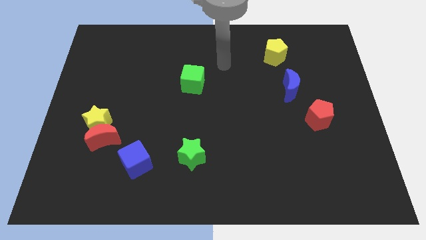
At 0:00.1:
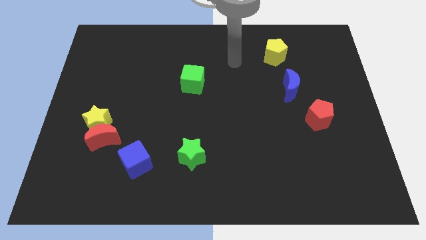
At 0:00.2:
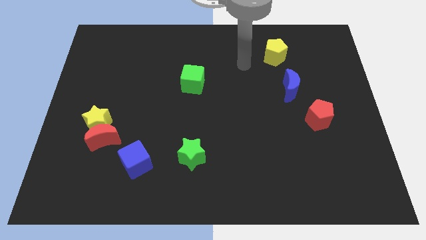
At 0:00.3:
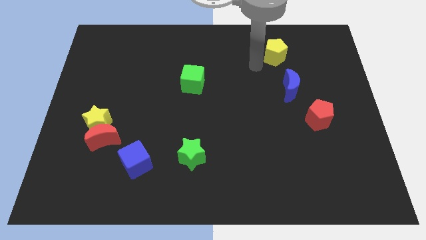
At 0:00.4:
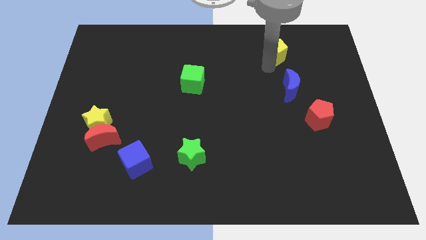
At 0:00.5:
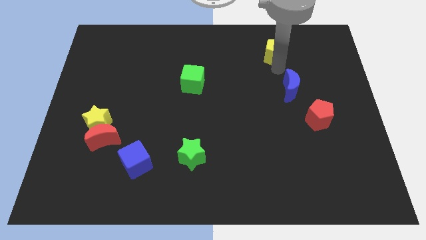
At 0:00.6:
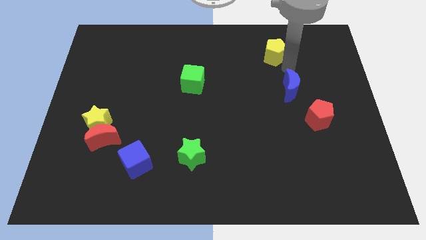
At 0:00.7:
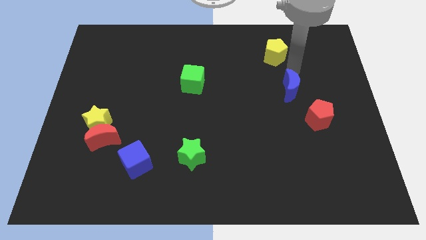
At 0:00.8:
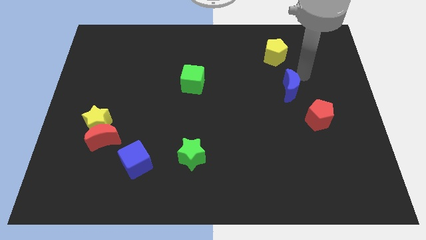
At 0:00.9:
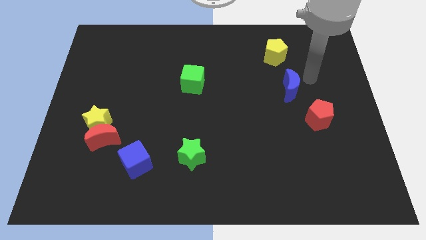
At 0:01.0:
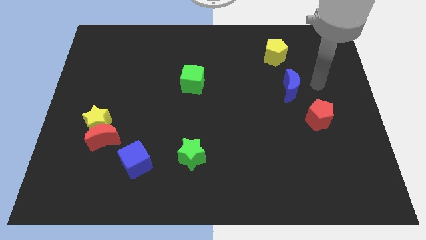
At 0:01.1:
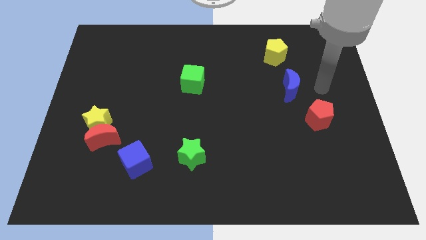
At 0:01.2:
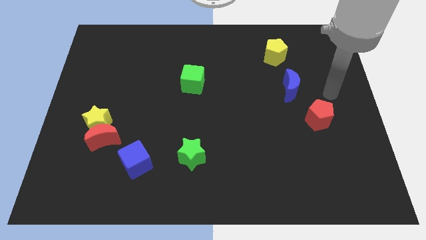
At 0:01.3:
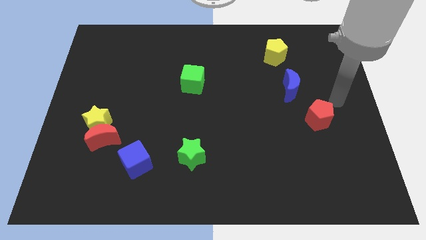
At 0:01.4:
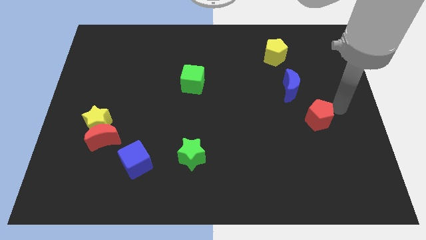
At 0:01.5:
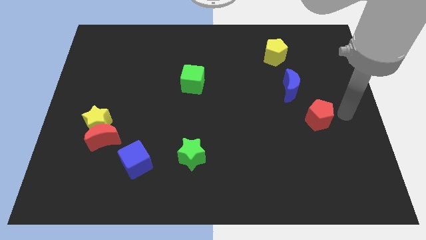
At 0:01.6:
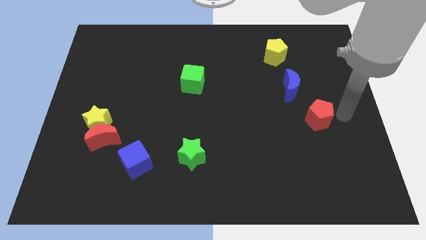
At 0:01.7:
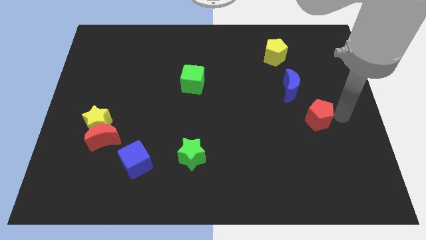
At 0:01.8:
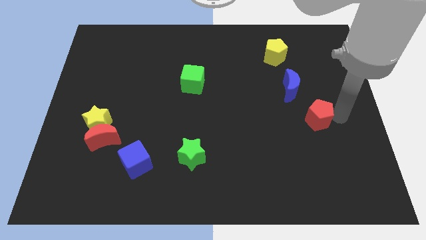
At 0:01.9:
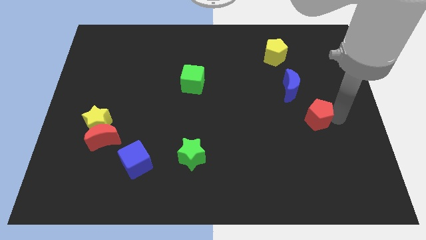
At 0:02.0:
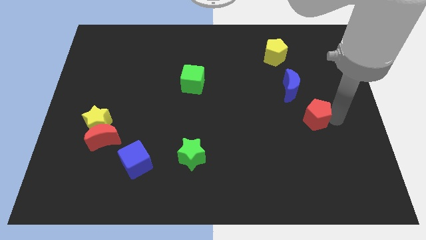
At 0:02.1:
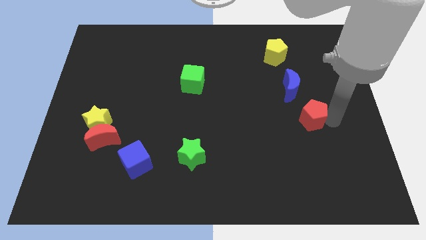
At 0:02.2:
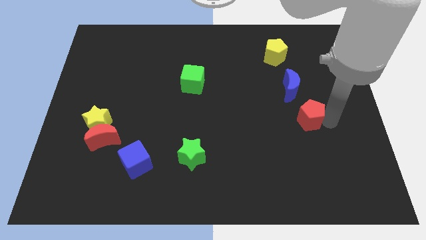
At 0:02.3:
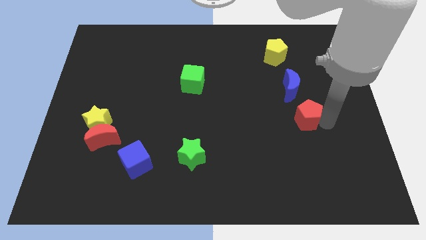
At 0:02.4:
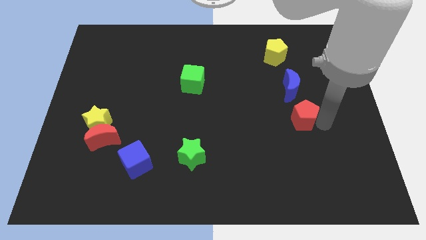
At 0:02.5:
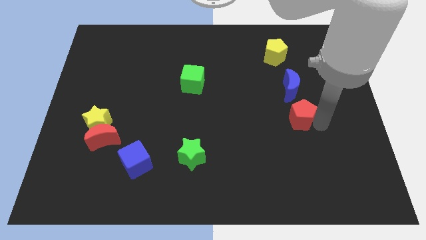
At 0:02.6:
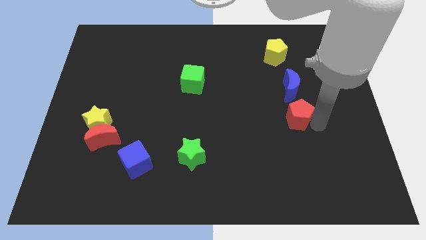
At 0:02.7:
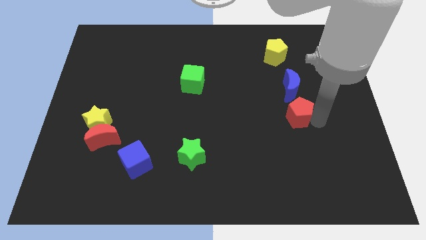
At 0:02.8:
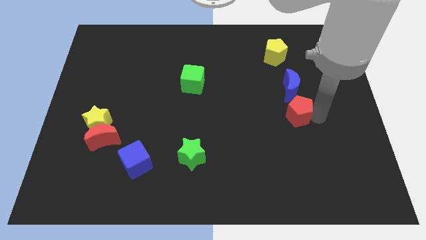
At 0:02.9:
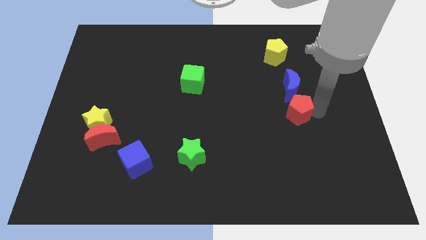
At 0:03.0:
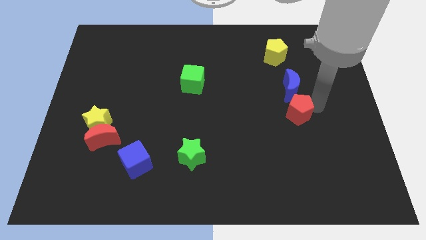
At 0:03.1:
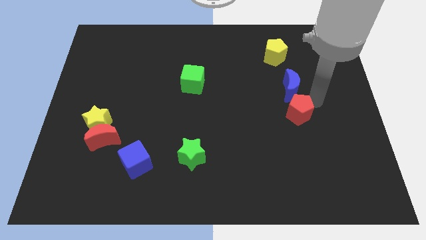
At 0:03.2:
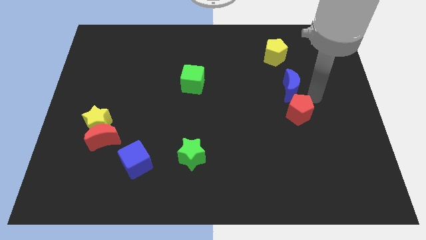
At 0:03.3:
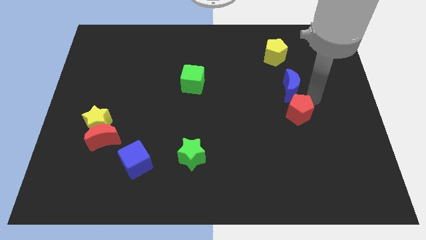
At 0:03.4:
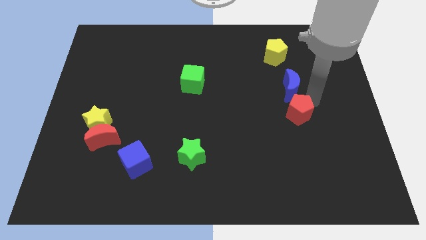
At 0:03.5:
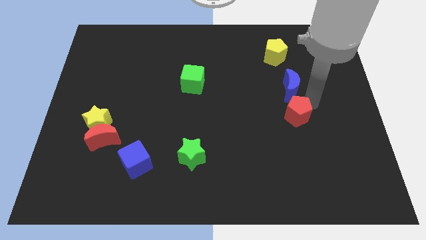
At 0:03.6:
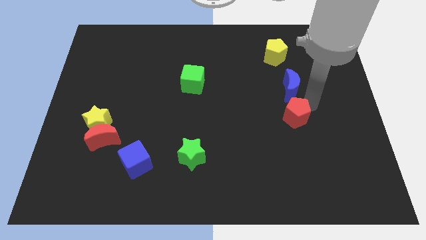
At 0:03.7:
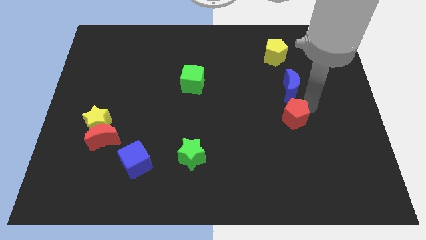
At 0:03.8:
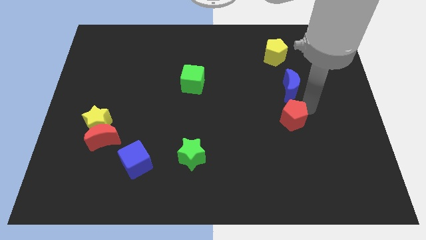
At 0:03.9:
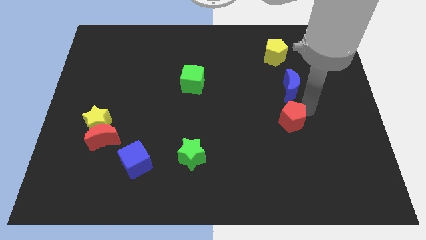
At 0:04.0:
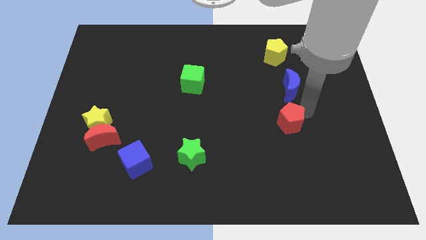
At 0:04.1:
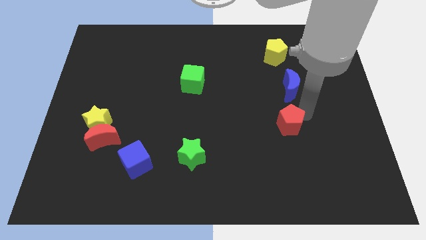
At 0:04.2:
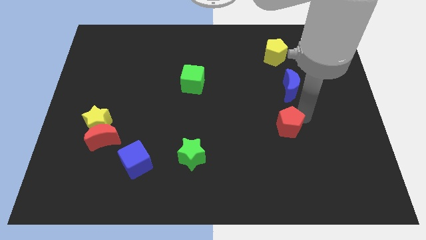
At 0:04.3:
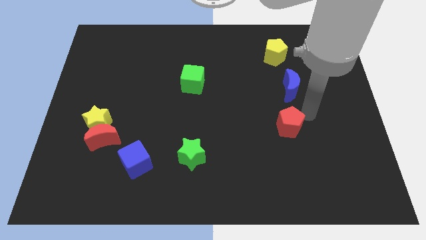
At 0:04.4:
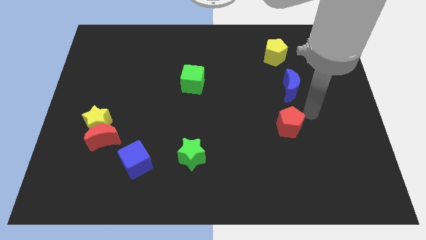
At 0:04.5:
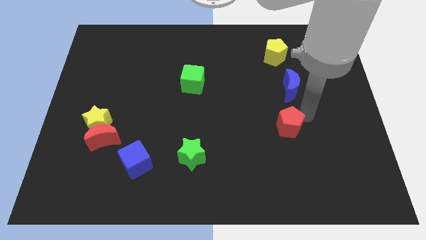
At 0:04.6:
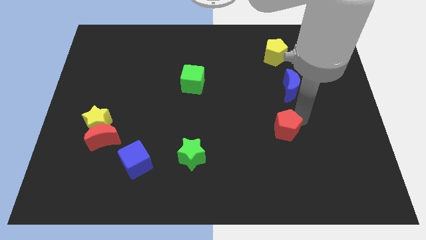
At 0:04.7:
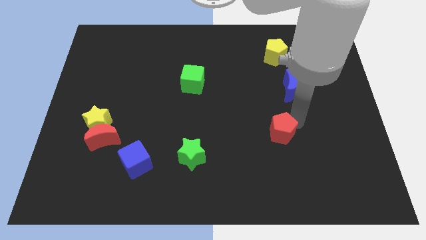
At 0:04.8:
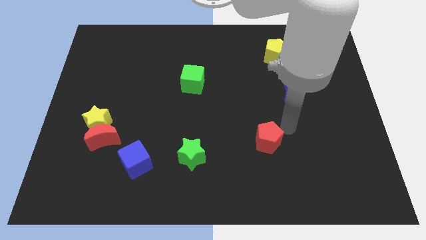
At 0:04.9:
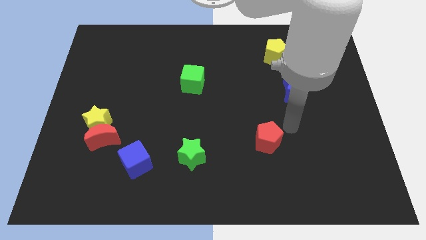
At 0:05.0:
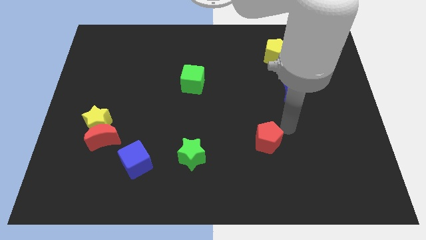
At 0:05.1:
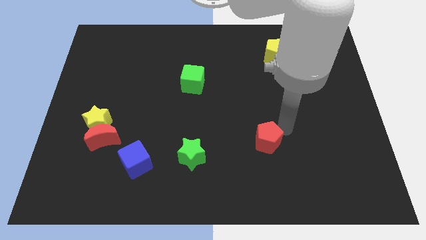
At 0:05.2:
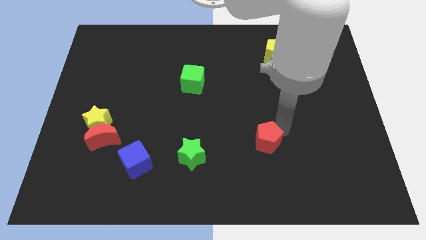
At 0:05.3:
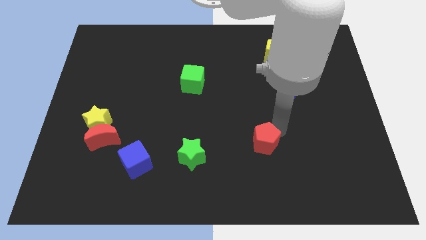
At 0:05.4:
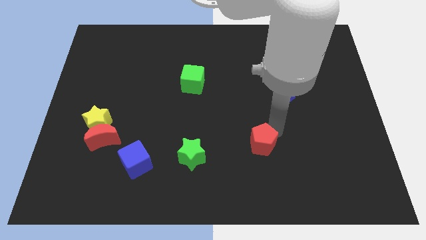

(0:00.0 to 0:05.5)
push the red pentagon right of the green star

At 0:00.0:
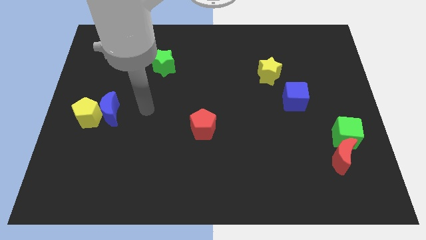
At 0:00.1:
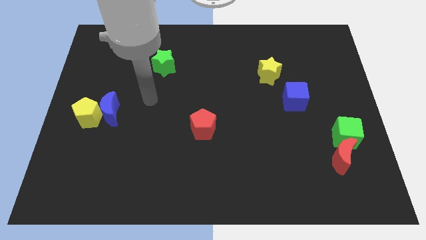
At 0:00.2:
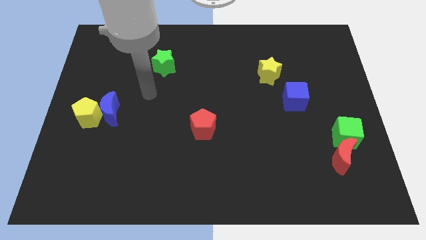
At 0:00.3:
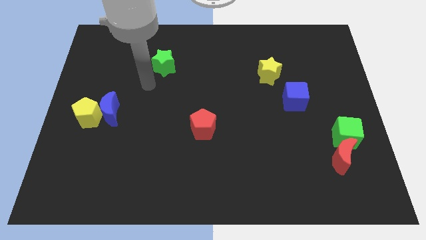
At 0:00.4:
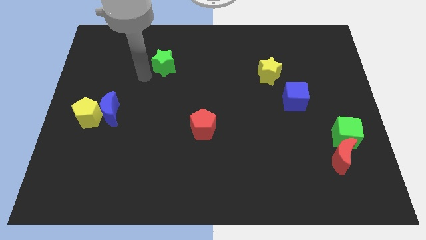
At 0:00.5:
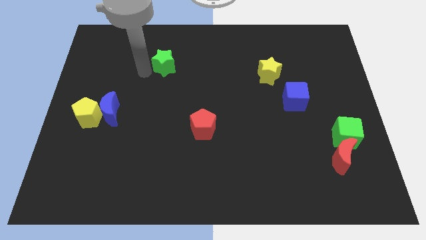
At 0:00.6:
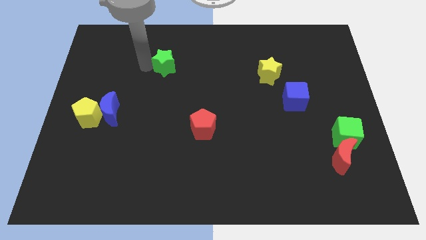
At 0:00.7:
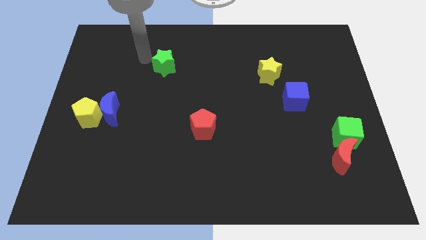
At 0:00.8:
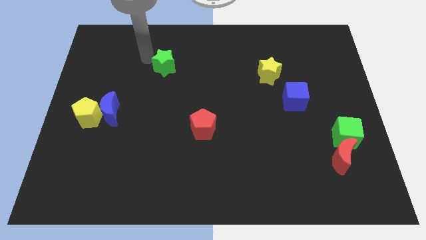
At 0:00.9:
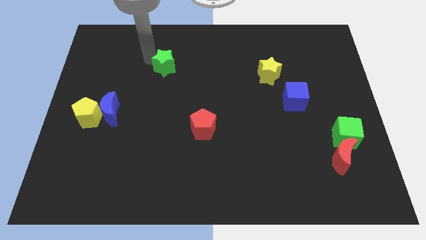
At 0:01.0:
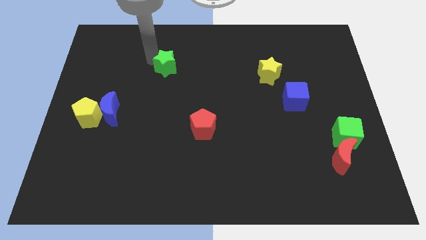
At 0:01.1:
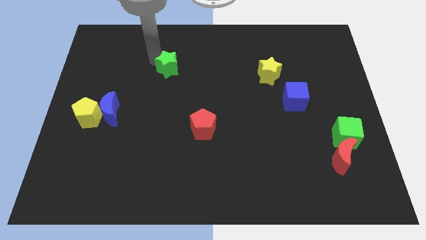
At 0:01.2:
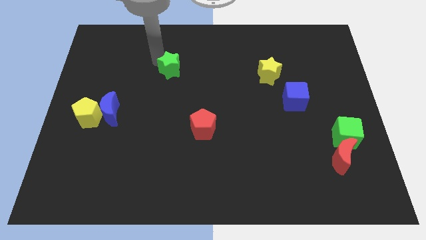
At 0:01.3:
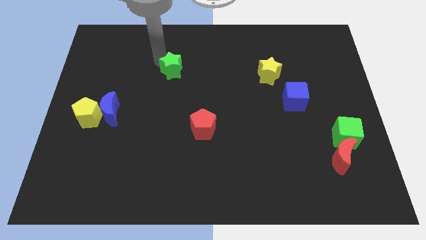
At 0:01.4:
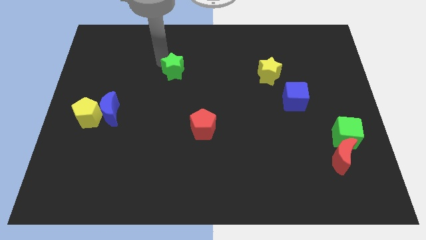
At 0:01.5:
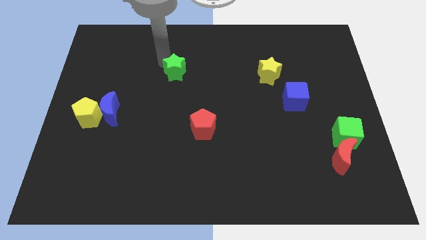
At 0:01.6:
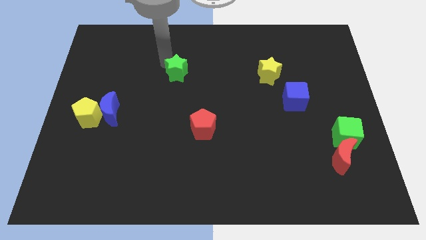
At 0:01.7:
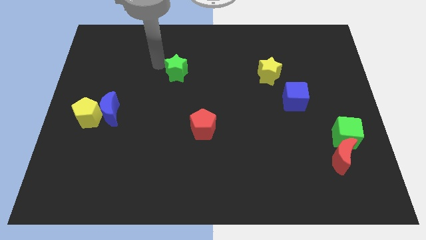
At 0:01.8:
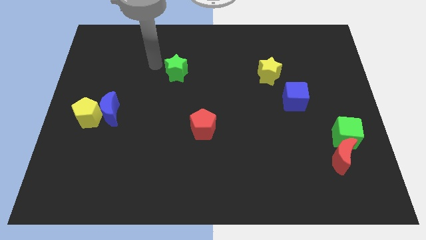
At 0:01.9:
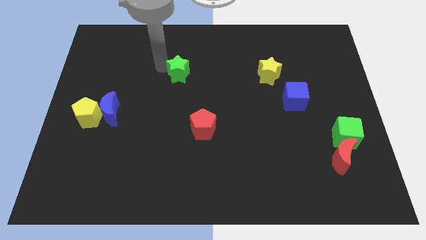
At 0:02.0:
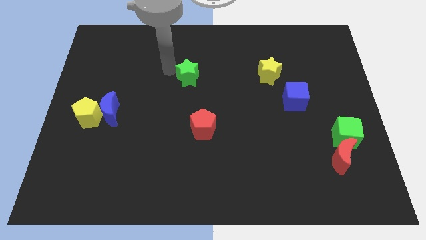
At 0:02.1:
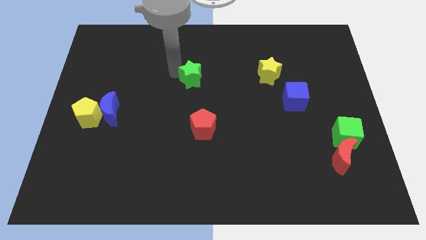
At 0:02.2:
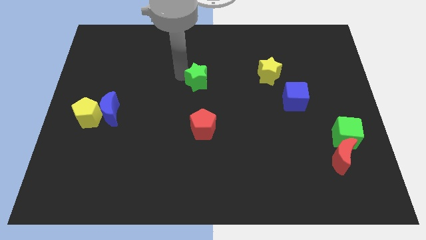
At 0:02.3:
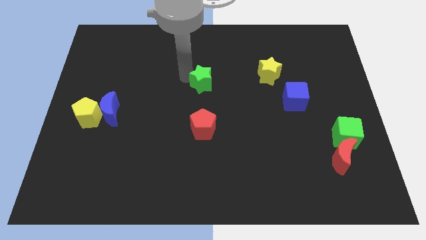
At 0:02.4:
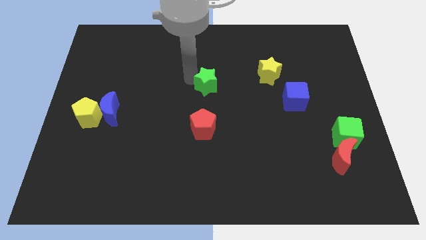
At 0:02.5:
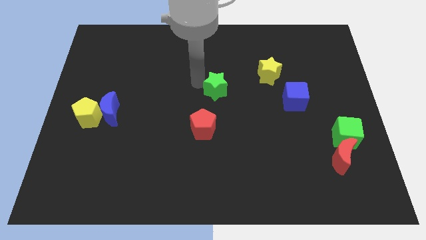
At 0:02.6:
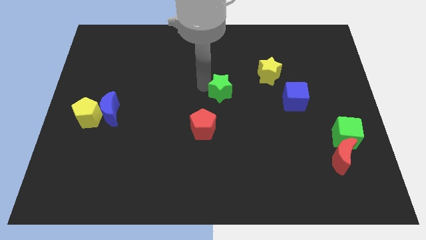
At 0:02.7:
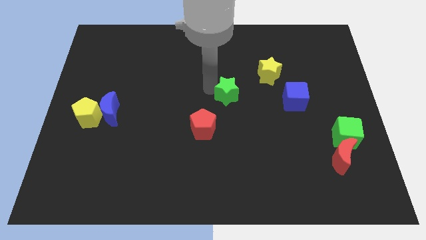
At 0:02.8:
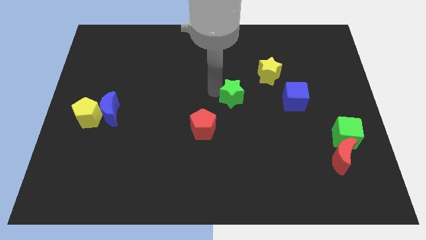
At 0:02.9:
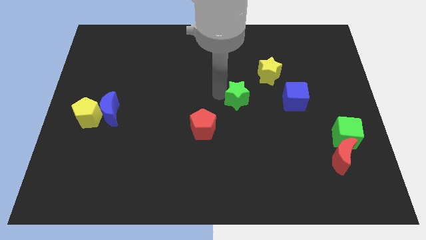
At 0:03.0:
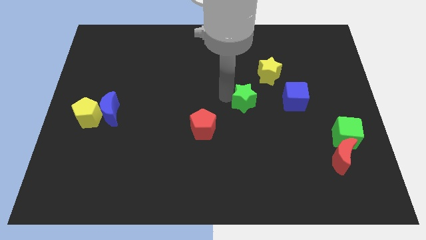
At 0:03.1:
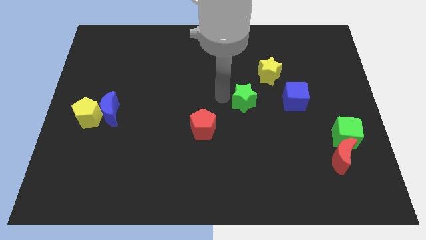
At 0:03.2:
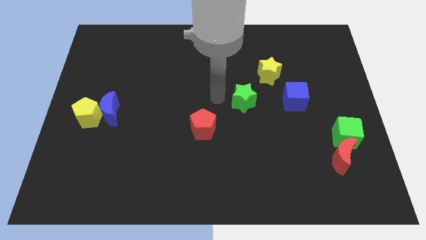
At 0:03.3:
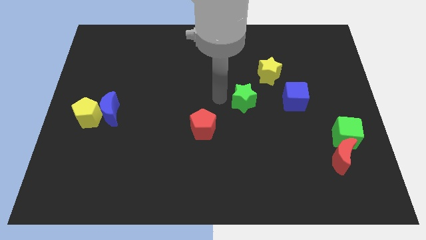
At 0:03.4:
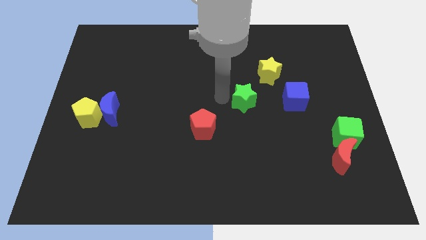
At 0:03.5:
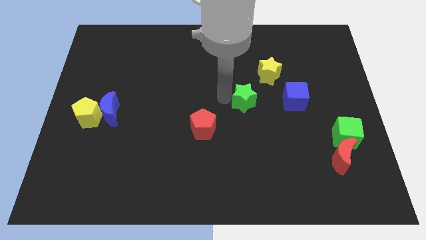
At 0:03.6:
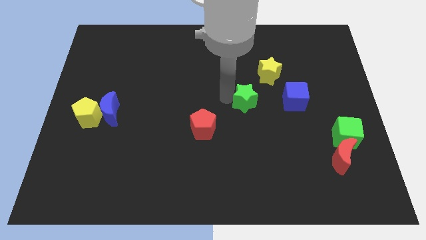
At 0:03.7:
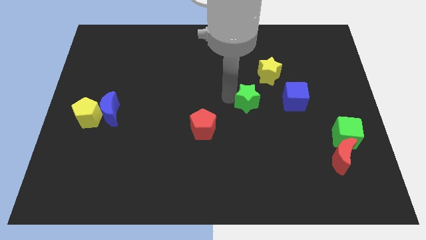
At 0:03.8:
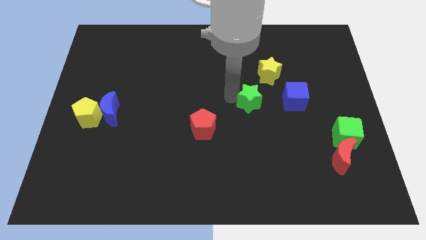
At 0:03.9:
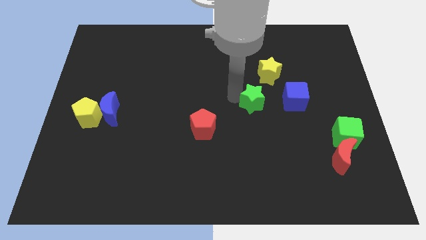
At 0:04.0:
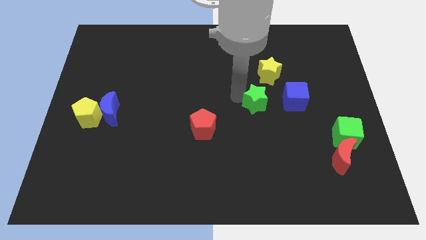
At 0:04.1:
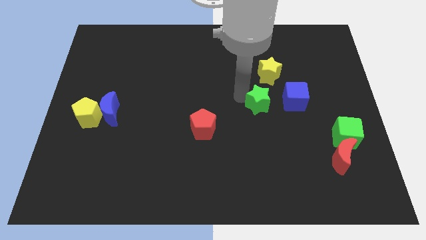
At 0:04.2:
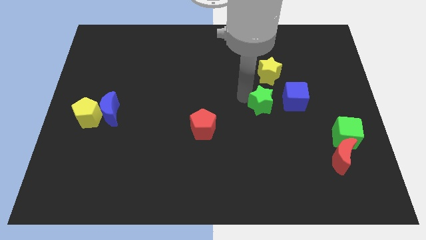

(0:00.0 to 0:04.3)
push the green star diagonally down and to the left of the blue cube
